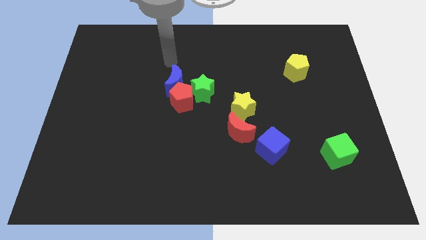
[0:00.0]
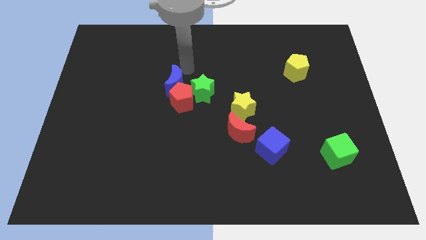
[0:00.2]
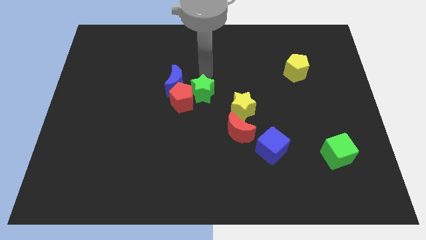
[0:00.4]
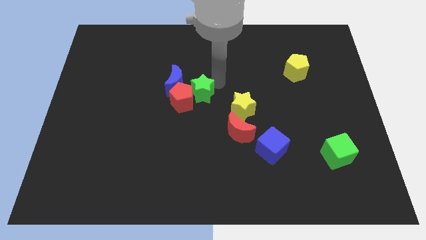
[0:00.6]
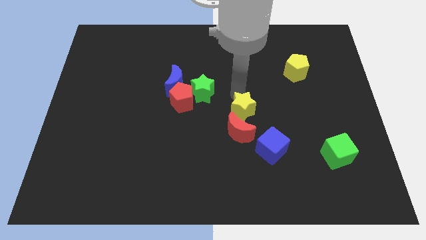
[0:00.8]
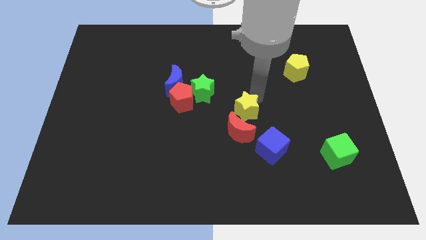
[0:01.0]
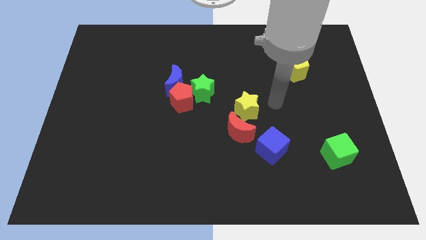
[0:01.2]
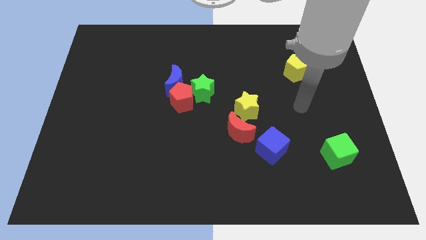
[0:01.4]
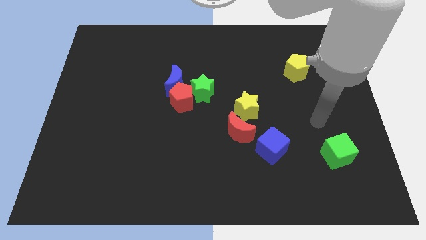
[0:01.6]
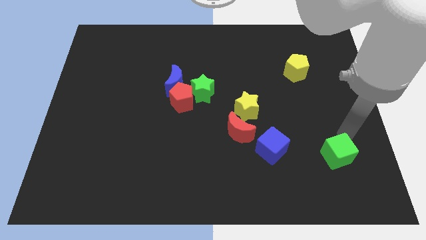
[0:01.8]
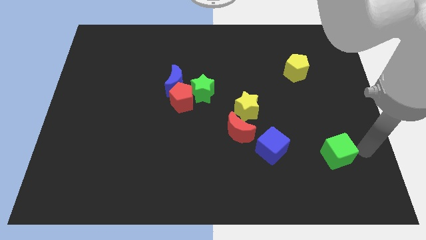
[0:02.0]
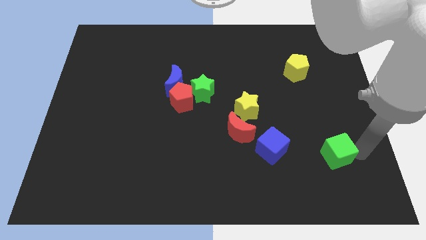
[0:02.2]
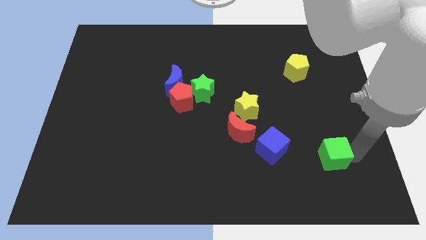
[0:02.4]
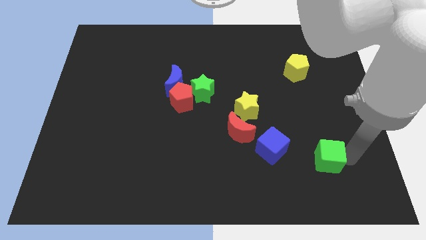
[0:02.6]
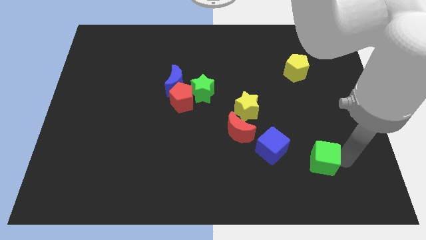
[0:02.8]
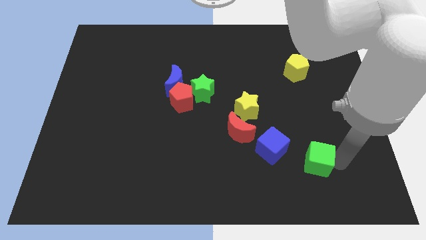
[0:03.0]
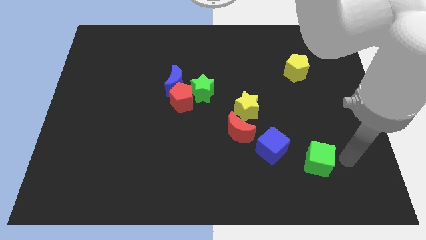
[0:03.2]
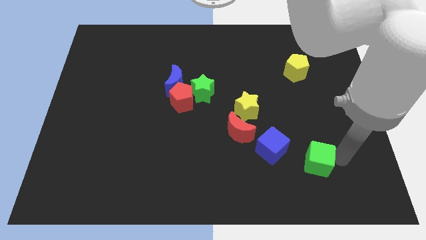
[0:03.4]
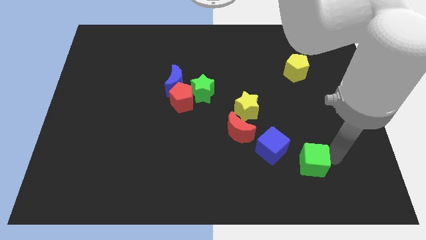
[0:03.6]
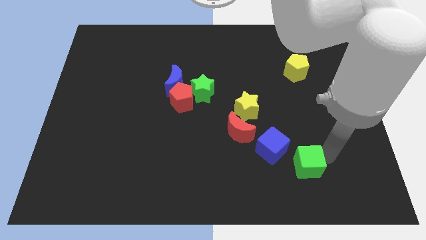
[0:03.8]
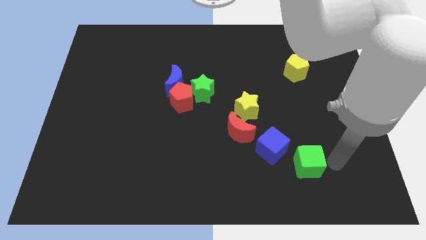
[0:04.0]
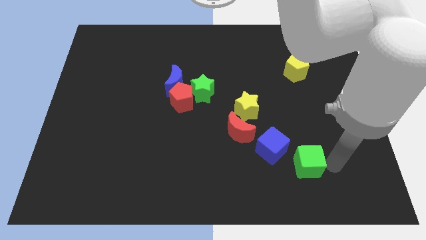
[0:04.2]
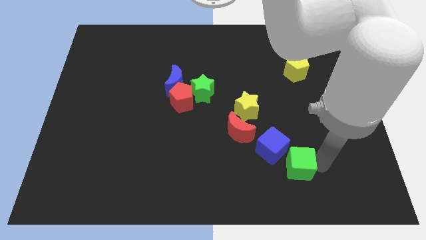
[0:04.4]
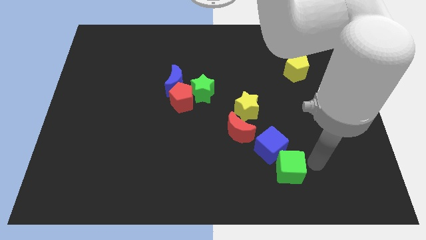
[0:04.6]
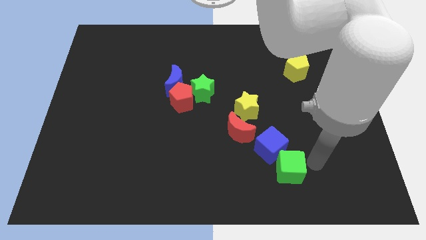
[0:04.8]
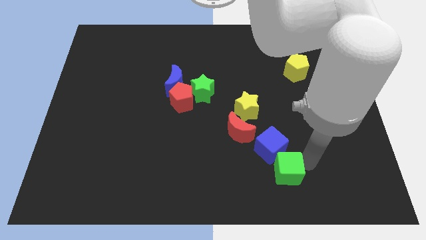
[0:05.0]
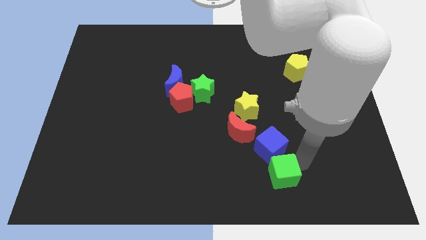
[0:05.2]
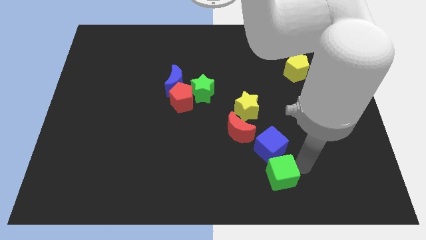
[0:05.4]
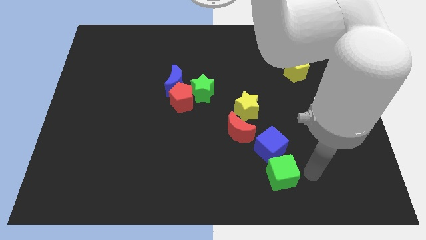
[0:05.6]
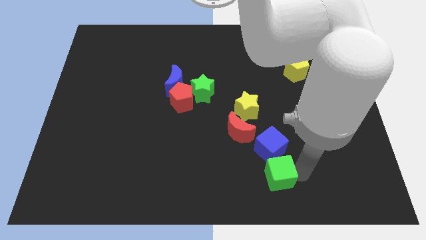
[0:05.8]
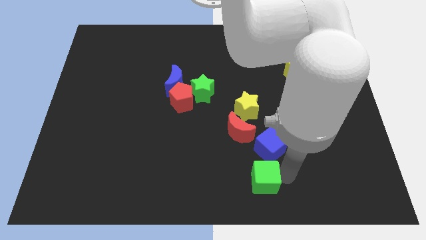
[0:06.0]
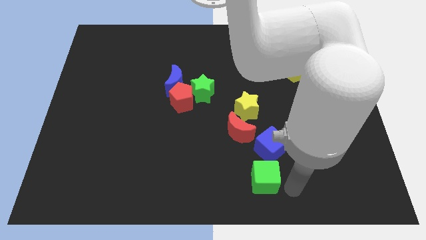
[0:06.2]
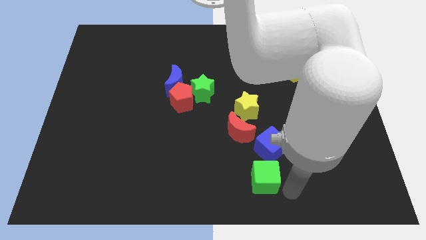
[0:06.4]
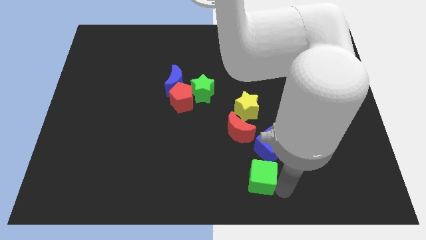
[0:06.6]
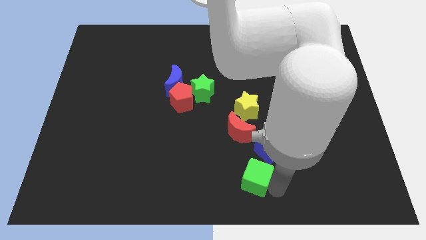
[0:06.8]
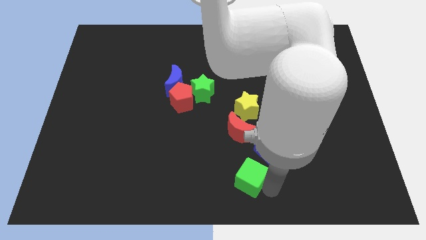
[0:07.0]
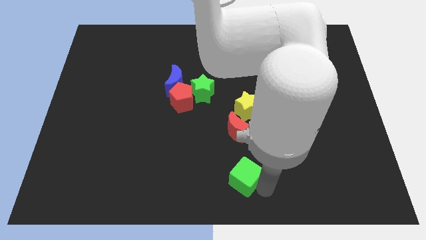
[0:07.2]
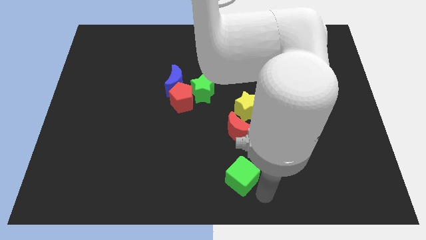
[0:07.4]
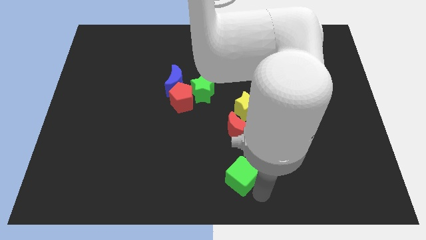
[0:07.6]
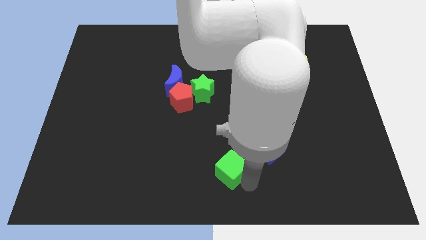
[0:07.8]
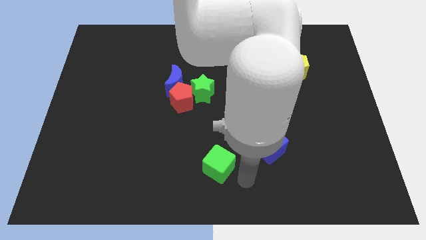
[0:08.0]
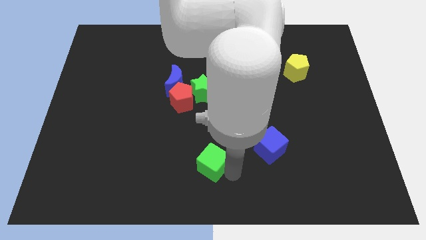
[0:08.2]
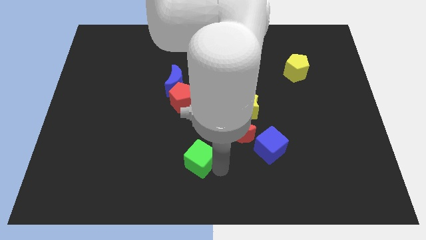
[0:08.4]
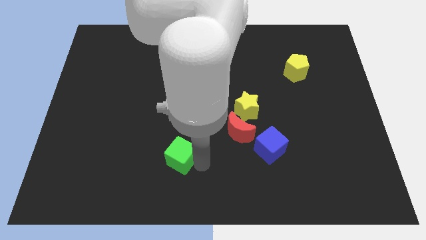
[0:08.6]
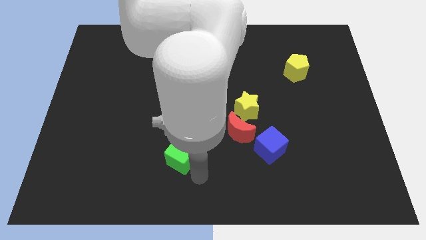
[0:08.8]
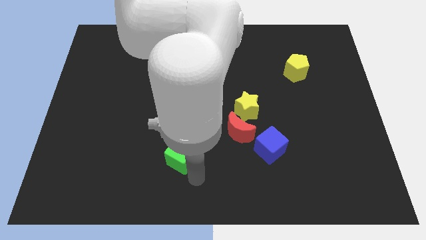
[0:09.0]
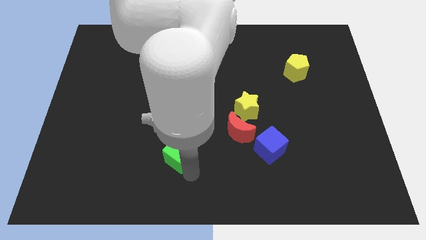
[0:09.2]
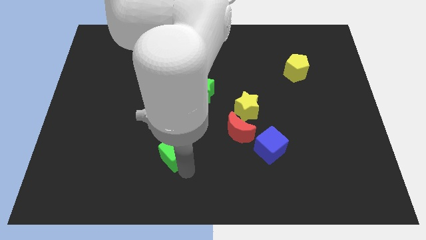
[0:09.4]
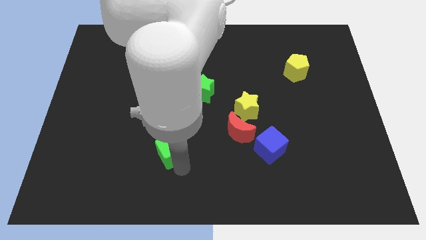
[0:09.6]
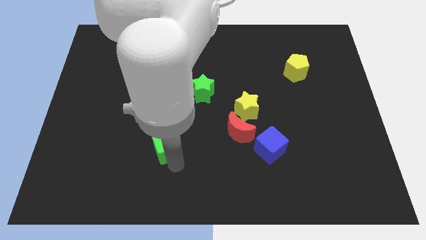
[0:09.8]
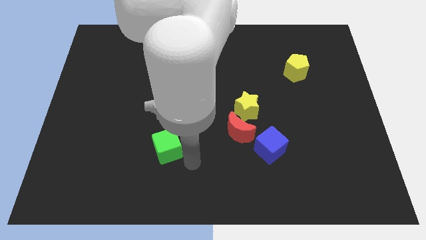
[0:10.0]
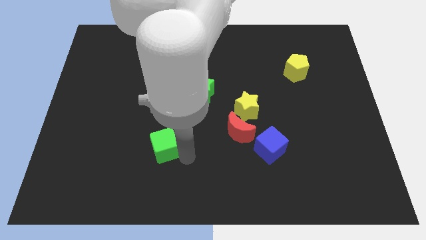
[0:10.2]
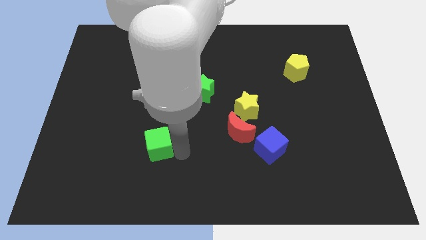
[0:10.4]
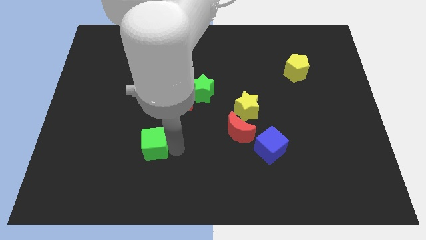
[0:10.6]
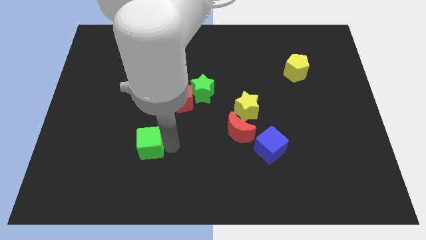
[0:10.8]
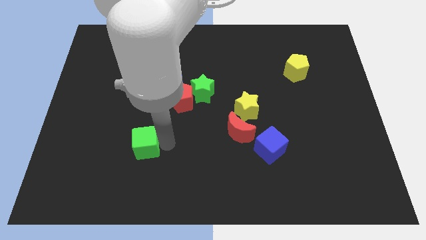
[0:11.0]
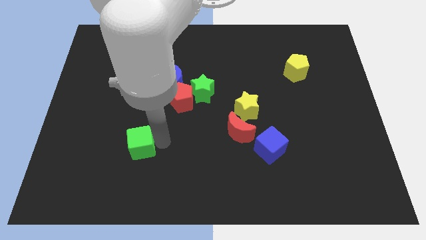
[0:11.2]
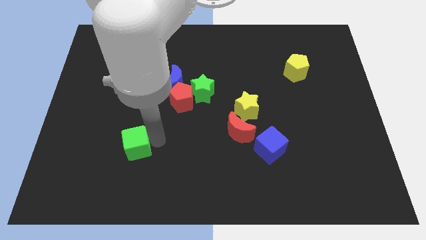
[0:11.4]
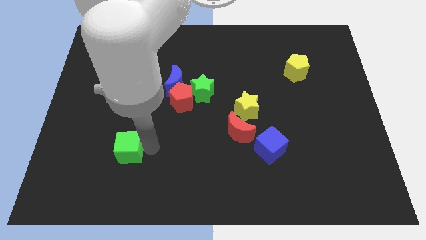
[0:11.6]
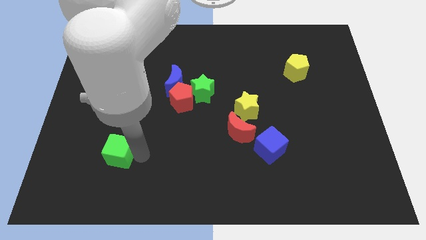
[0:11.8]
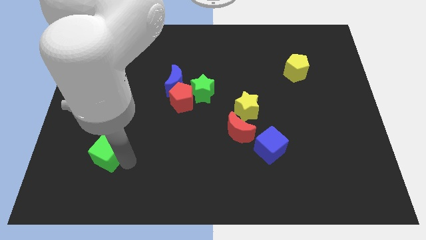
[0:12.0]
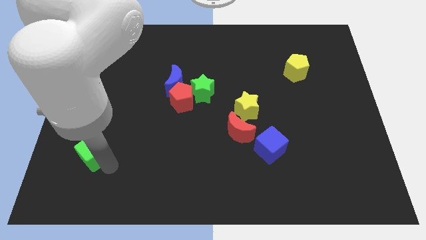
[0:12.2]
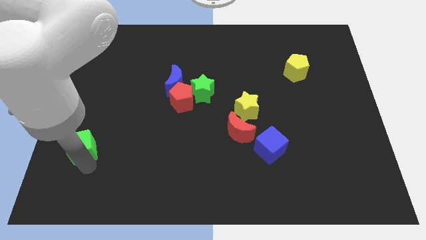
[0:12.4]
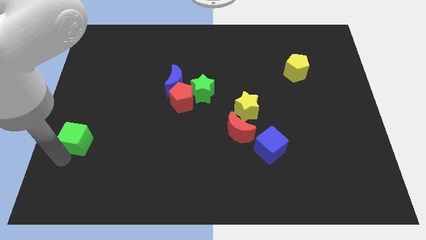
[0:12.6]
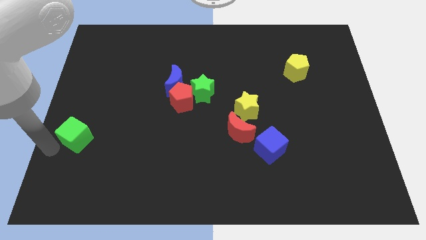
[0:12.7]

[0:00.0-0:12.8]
slide the green cube to the left side

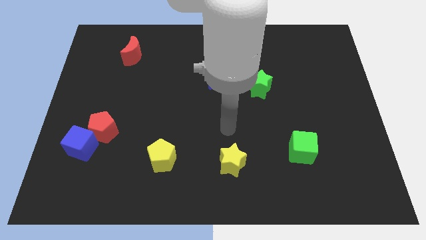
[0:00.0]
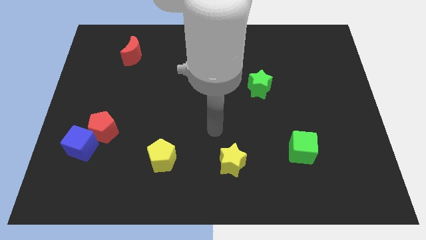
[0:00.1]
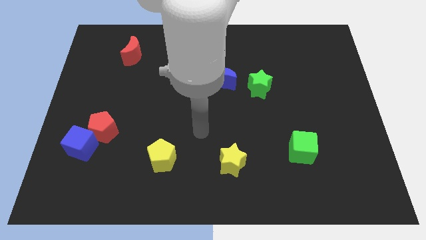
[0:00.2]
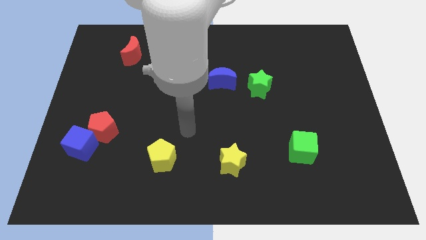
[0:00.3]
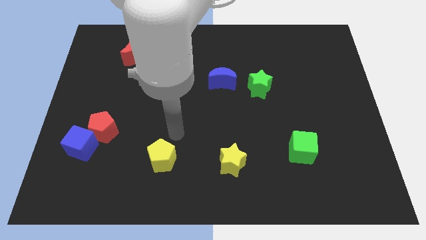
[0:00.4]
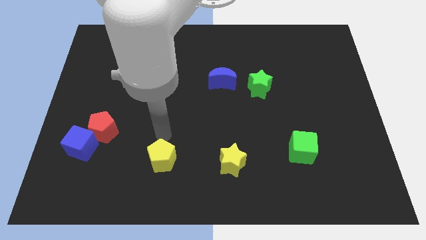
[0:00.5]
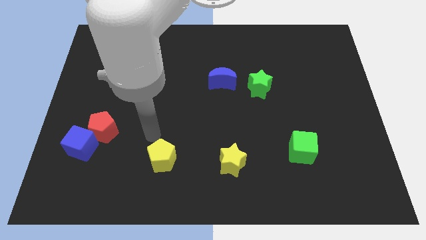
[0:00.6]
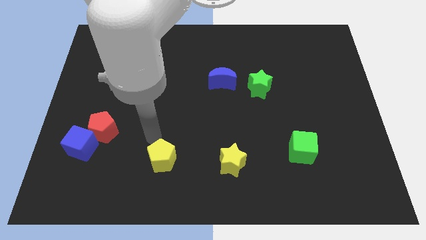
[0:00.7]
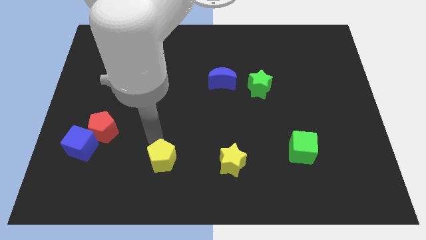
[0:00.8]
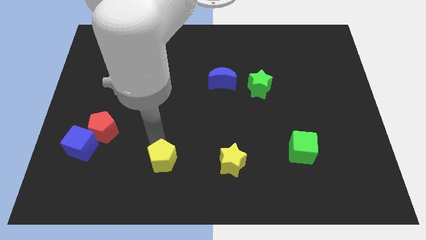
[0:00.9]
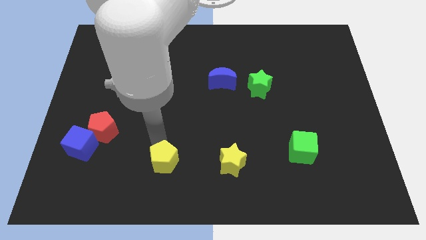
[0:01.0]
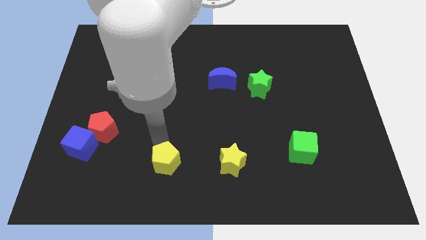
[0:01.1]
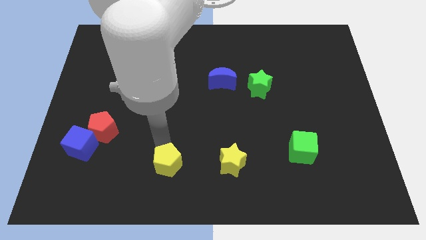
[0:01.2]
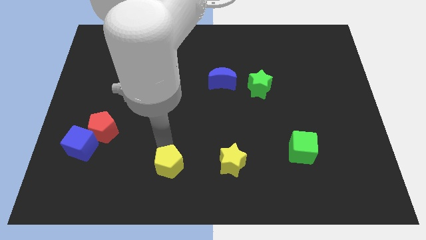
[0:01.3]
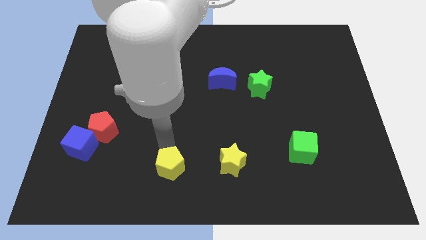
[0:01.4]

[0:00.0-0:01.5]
put the yellow pentagon to the bottom side
